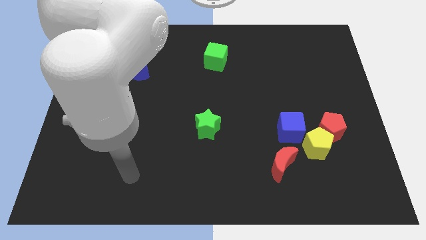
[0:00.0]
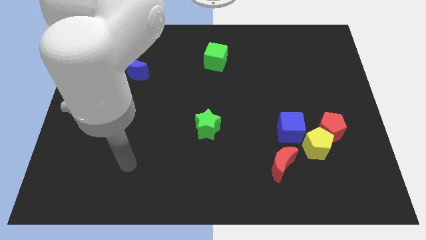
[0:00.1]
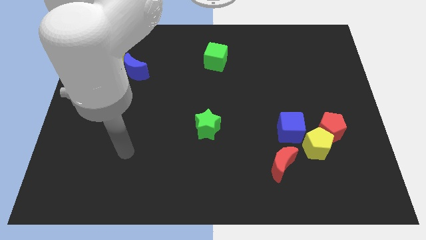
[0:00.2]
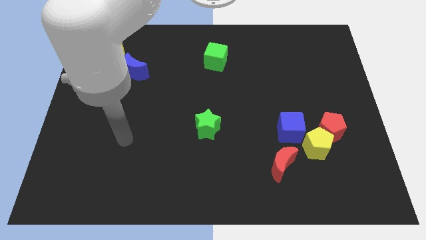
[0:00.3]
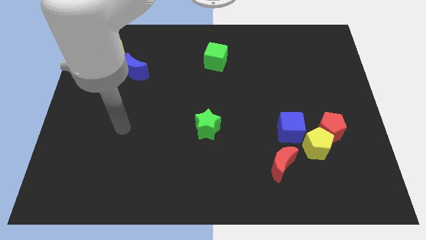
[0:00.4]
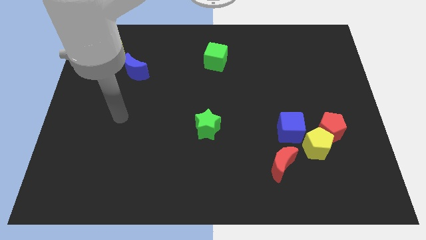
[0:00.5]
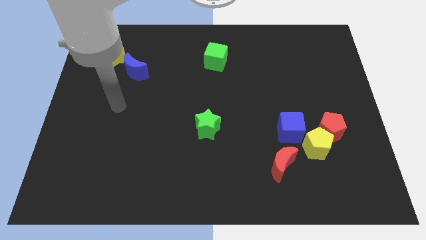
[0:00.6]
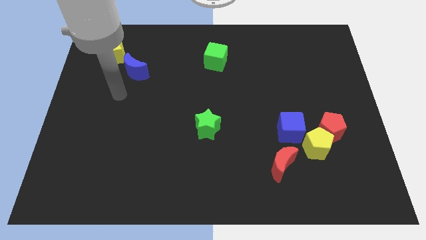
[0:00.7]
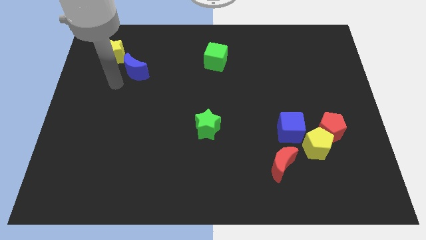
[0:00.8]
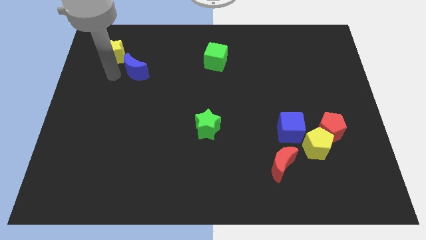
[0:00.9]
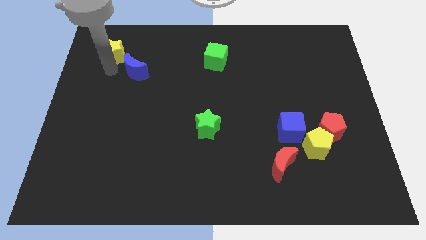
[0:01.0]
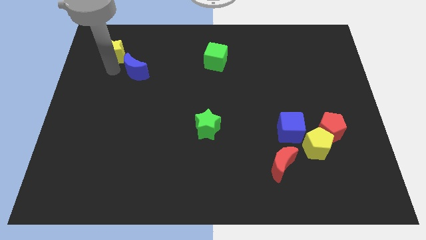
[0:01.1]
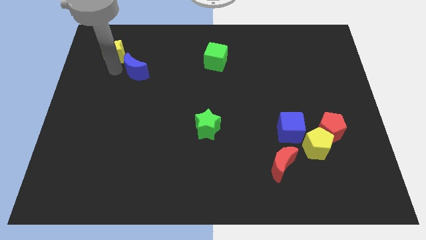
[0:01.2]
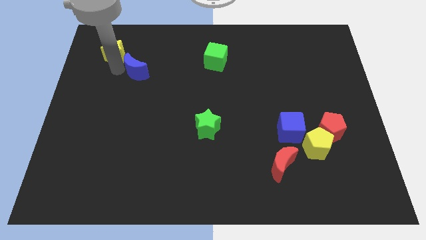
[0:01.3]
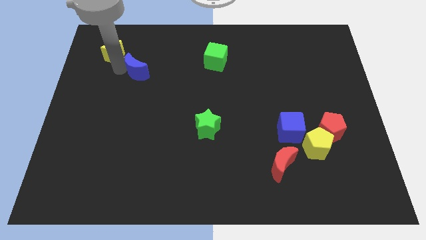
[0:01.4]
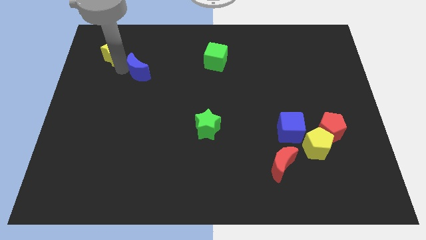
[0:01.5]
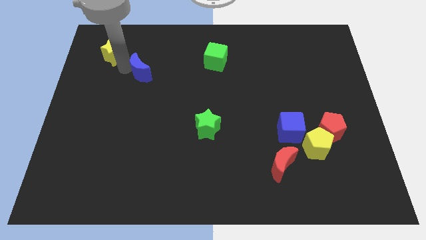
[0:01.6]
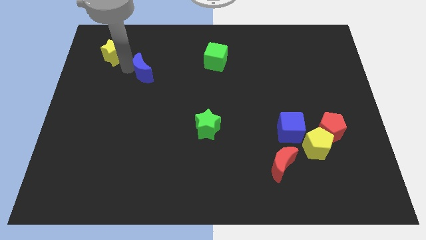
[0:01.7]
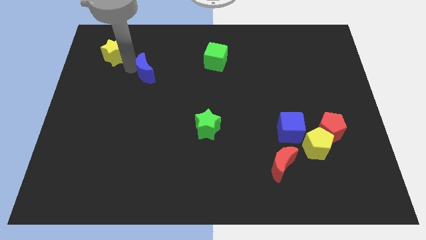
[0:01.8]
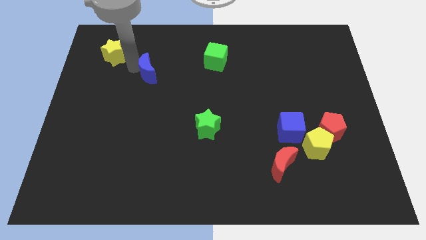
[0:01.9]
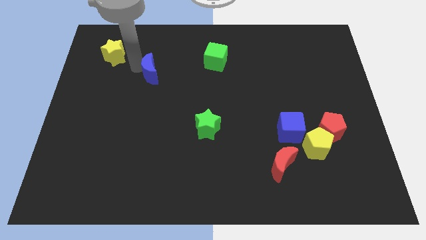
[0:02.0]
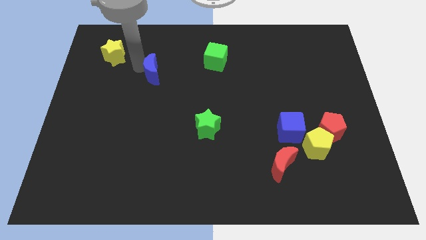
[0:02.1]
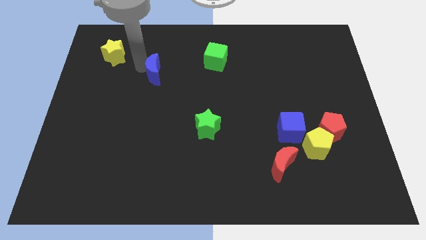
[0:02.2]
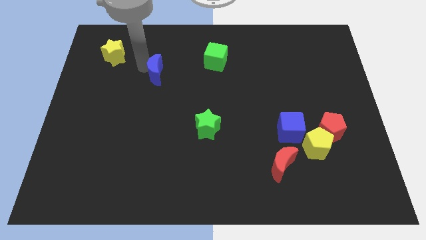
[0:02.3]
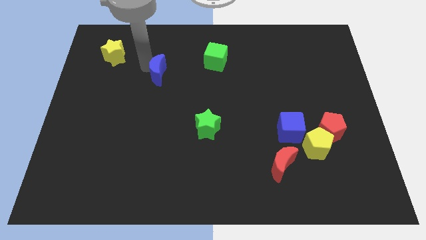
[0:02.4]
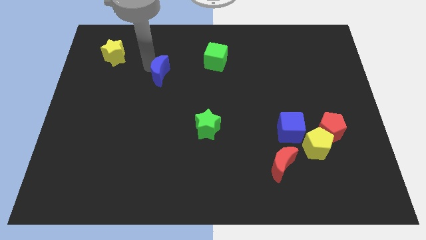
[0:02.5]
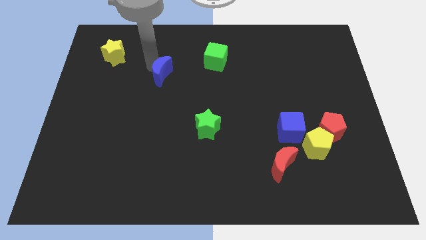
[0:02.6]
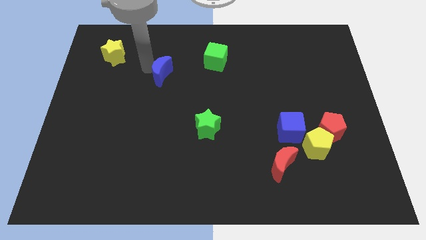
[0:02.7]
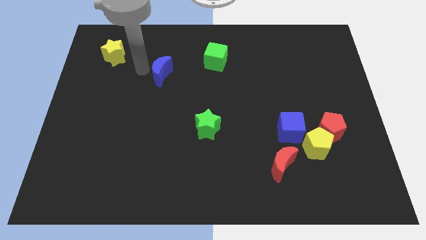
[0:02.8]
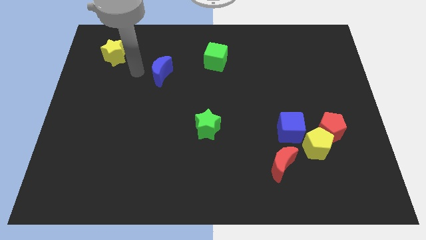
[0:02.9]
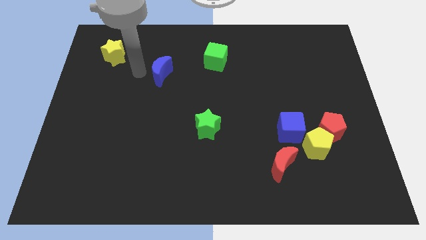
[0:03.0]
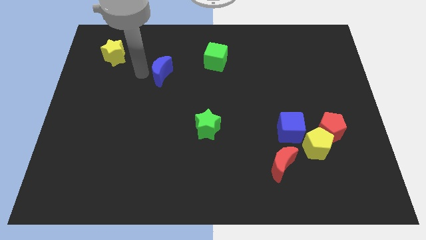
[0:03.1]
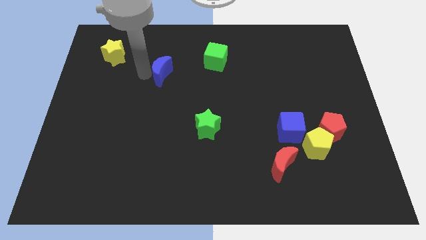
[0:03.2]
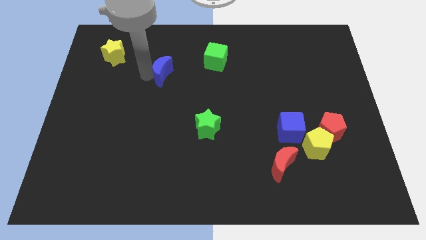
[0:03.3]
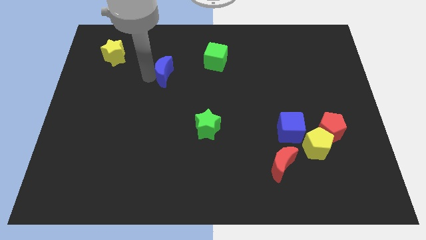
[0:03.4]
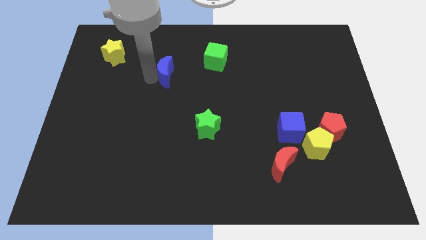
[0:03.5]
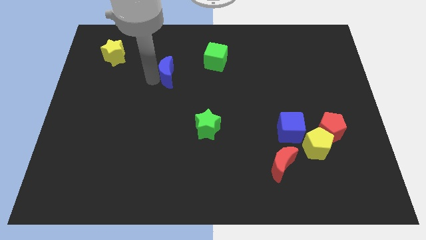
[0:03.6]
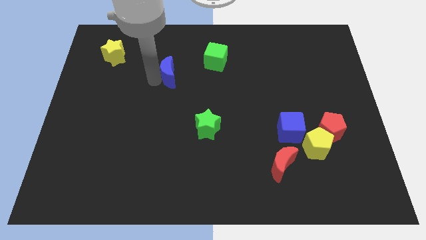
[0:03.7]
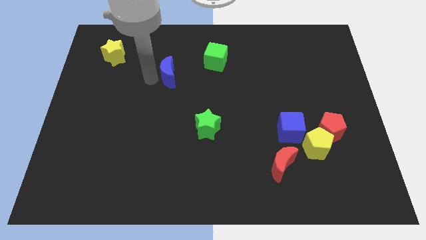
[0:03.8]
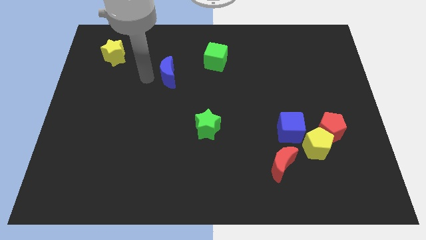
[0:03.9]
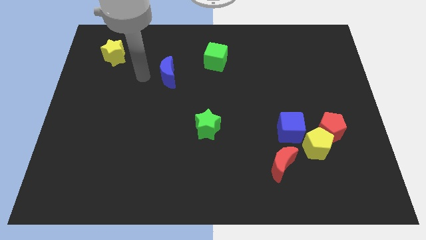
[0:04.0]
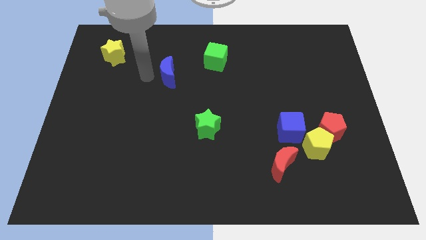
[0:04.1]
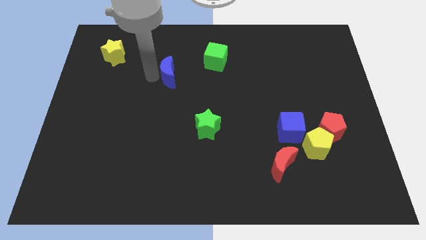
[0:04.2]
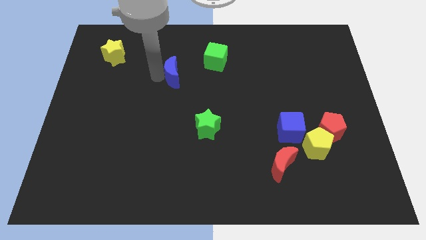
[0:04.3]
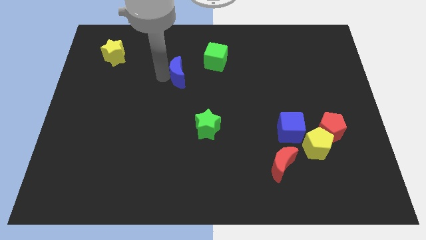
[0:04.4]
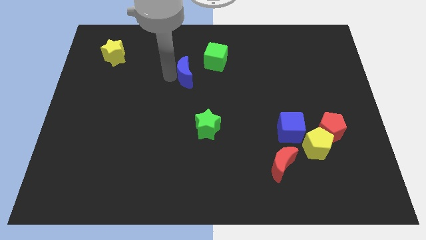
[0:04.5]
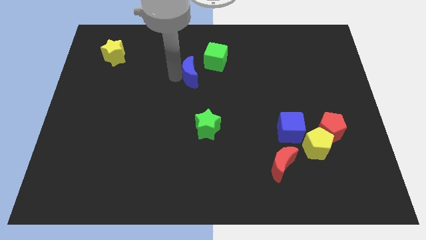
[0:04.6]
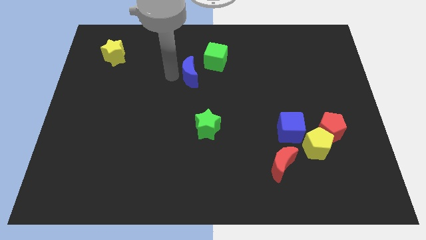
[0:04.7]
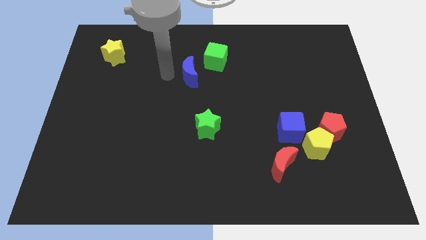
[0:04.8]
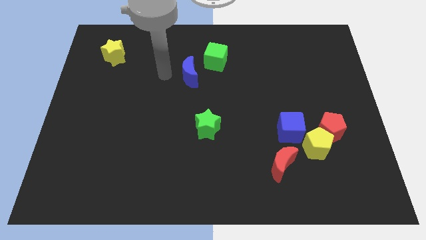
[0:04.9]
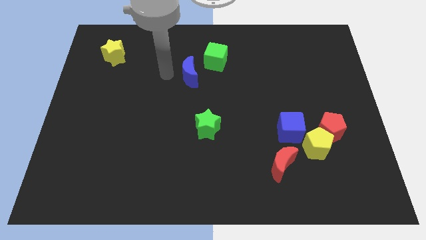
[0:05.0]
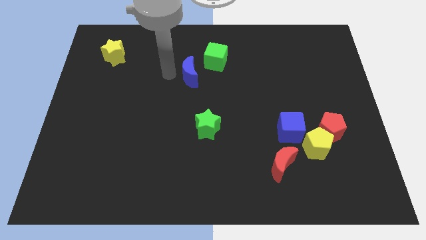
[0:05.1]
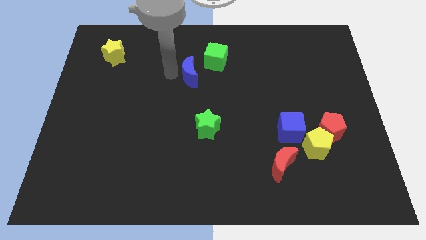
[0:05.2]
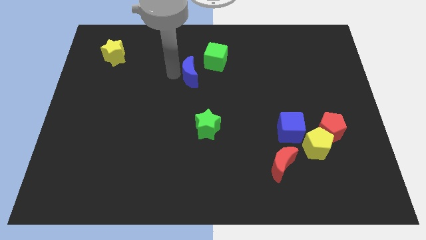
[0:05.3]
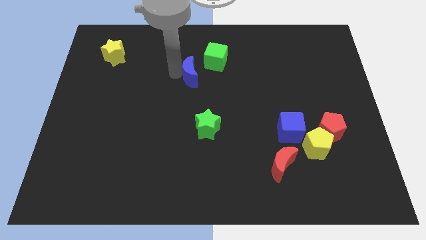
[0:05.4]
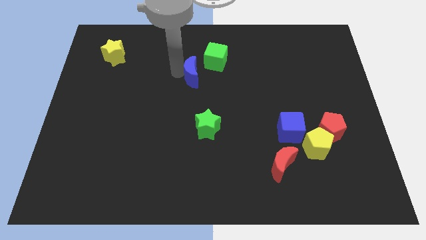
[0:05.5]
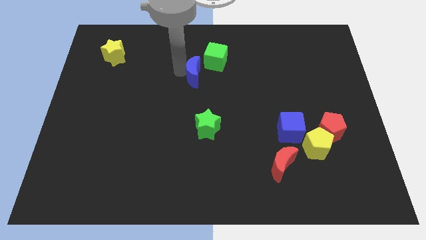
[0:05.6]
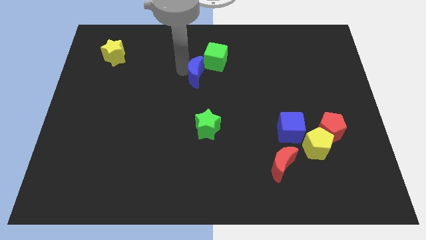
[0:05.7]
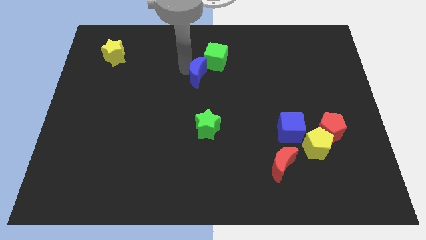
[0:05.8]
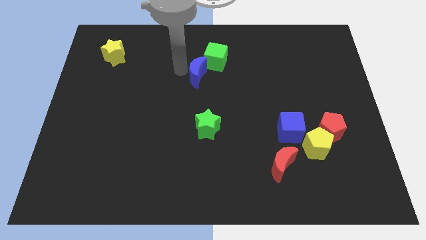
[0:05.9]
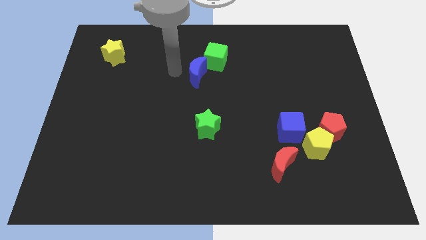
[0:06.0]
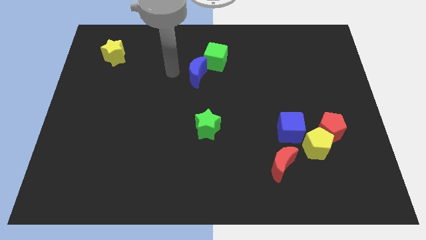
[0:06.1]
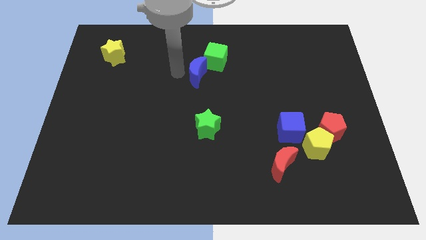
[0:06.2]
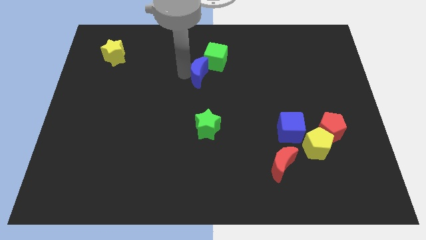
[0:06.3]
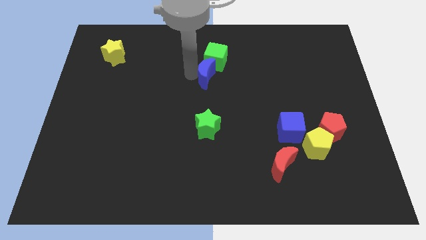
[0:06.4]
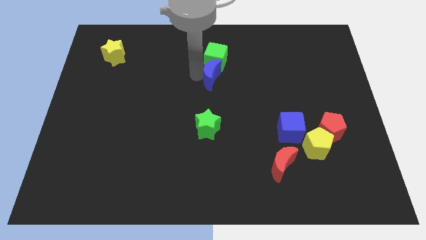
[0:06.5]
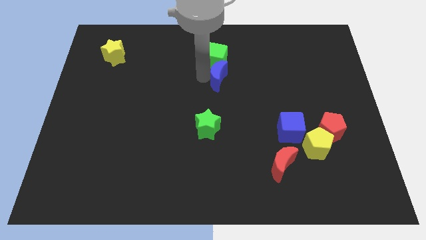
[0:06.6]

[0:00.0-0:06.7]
move the blue moon right

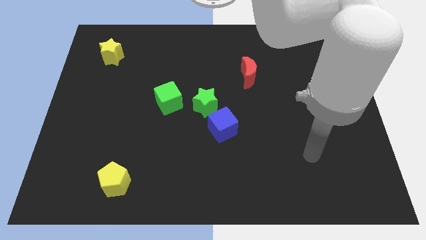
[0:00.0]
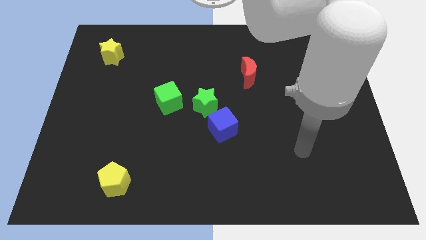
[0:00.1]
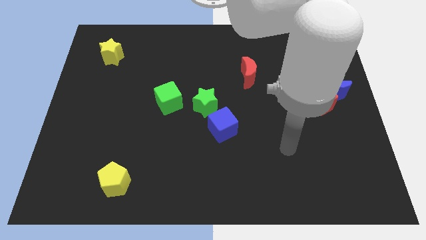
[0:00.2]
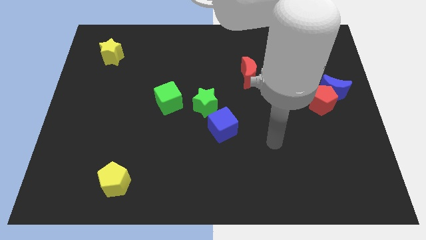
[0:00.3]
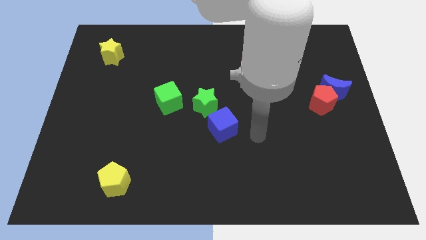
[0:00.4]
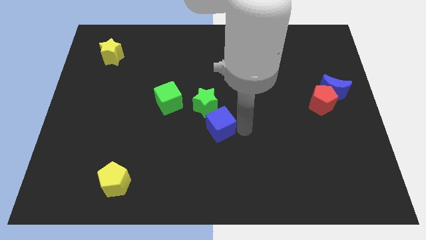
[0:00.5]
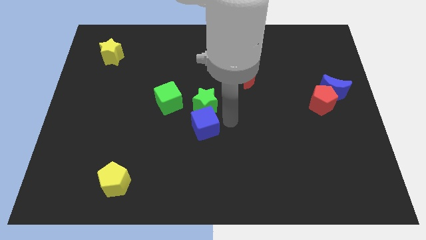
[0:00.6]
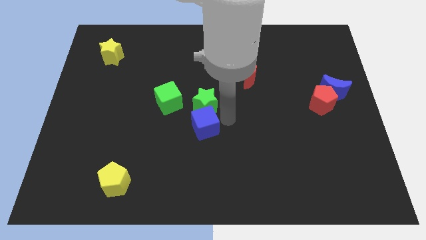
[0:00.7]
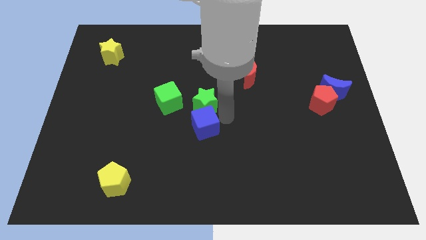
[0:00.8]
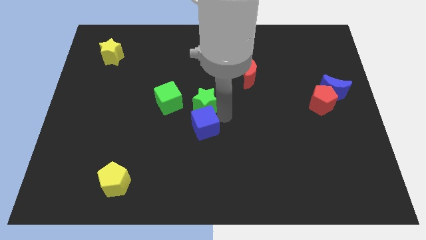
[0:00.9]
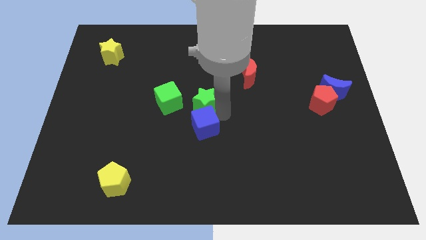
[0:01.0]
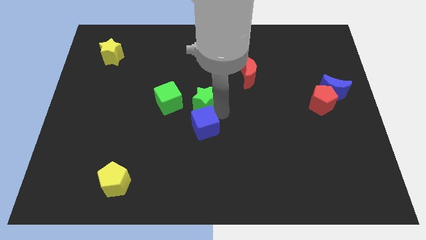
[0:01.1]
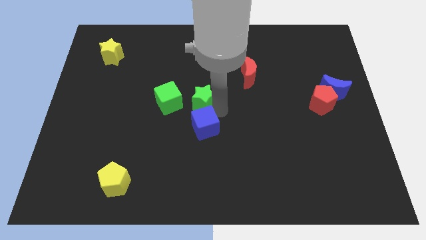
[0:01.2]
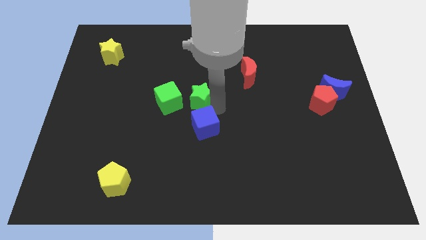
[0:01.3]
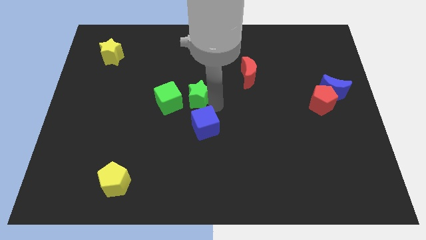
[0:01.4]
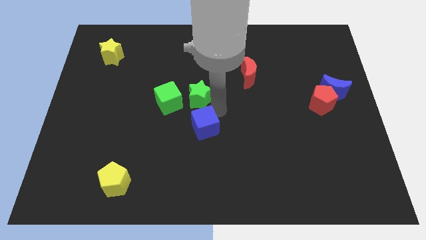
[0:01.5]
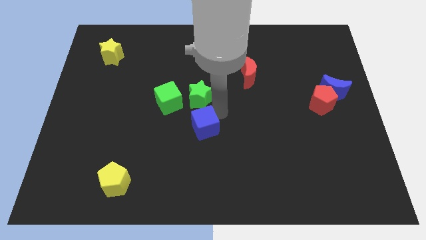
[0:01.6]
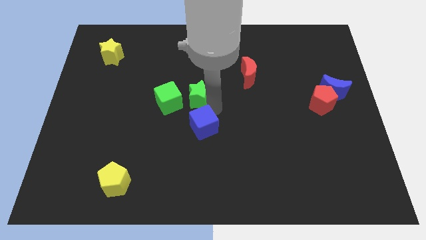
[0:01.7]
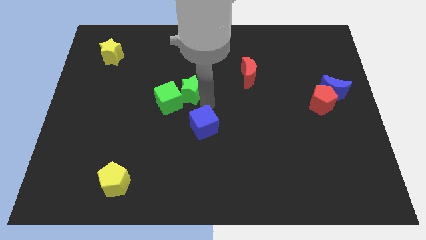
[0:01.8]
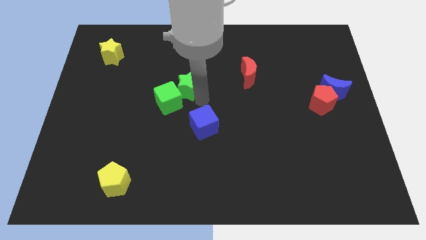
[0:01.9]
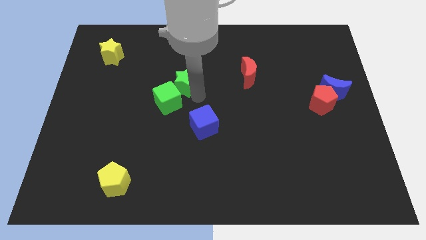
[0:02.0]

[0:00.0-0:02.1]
push the green star somewhat upwards and to the left diagonally
